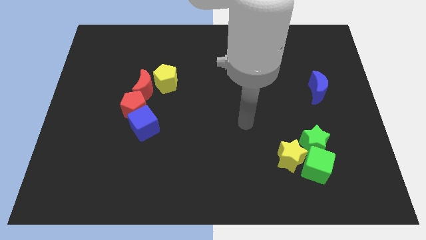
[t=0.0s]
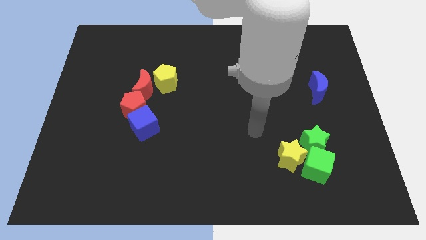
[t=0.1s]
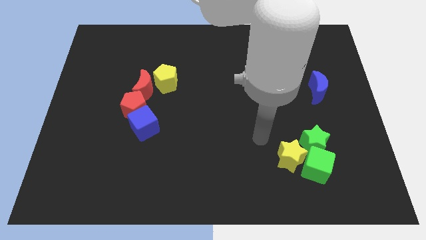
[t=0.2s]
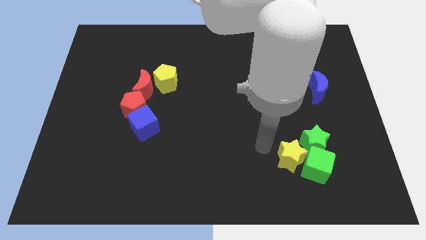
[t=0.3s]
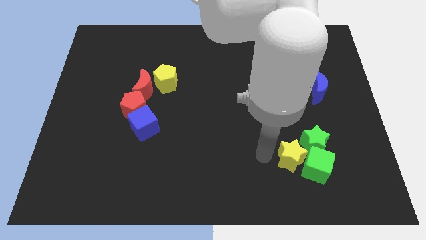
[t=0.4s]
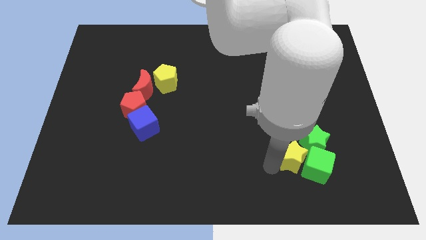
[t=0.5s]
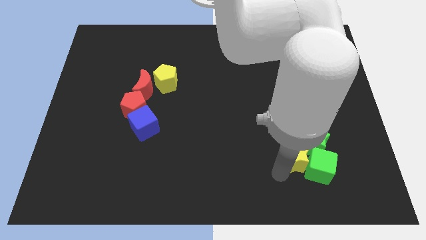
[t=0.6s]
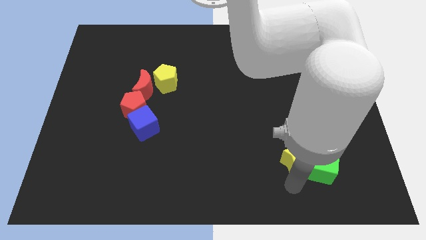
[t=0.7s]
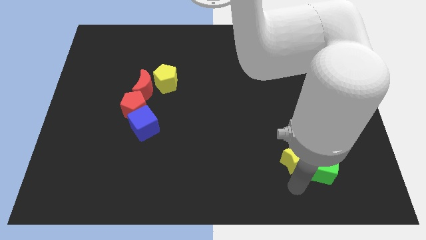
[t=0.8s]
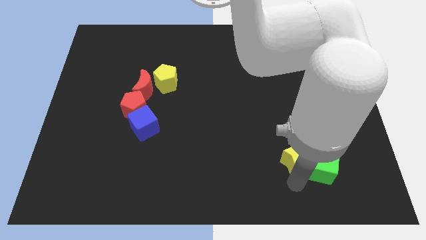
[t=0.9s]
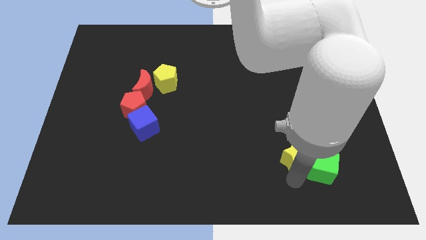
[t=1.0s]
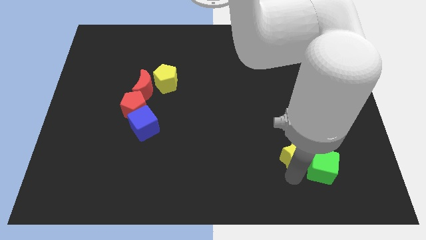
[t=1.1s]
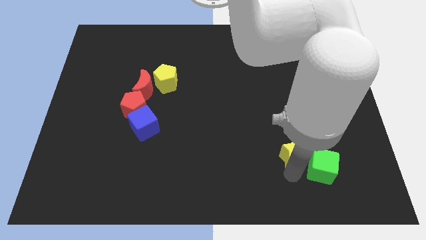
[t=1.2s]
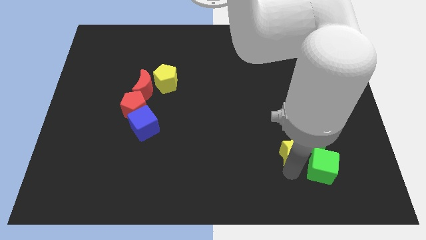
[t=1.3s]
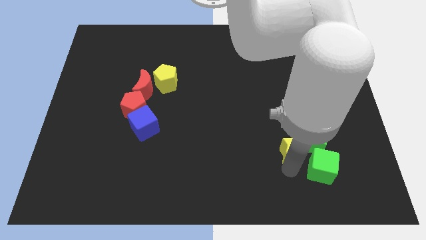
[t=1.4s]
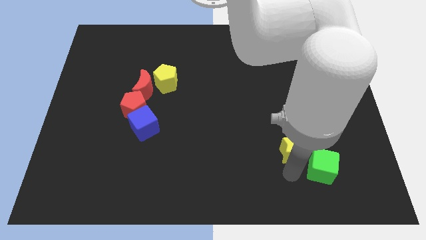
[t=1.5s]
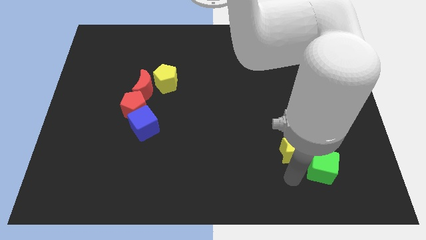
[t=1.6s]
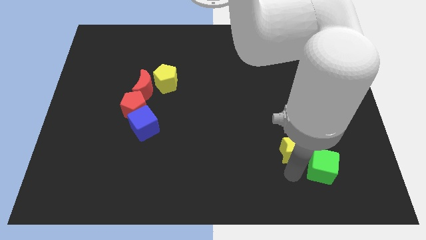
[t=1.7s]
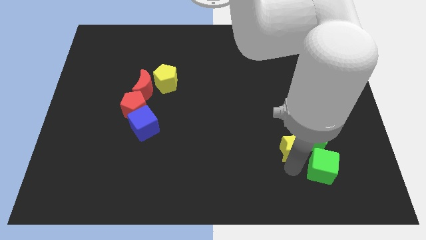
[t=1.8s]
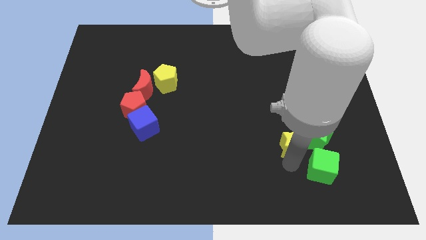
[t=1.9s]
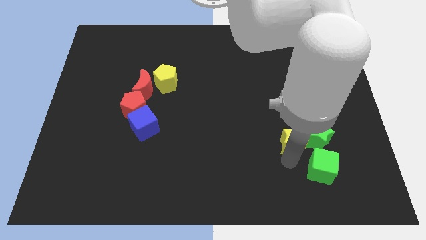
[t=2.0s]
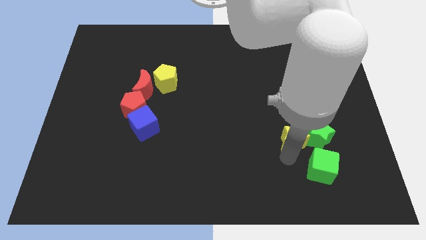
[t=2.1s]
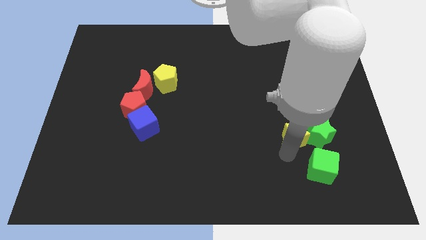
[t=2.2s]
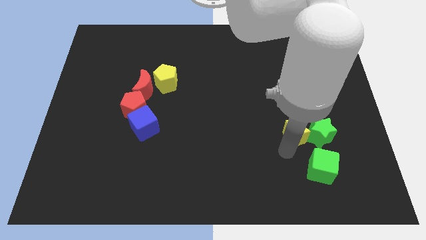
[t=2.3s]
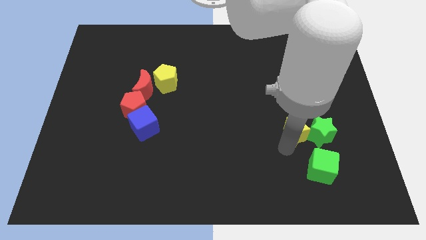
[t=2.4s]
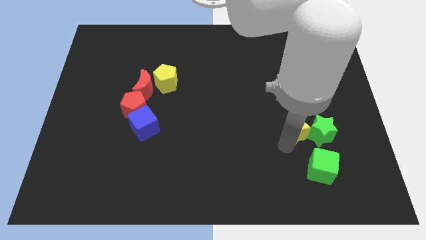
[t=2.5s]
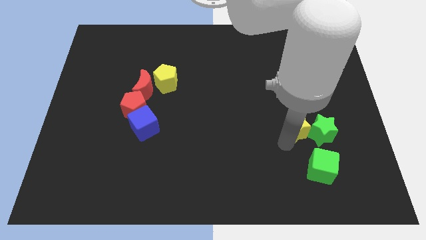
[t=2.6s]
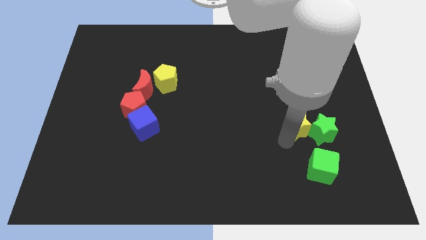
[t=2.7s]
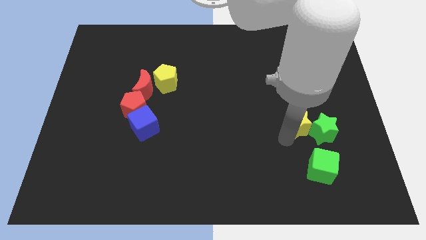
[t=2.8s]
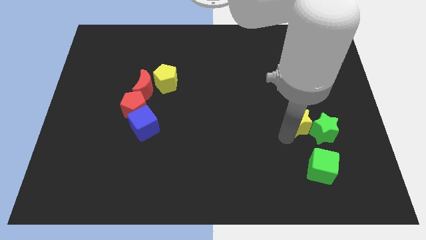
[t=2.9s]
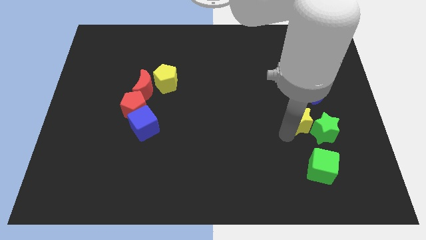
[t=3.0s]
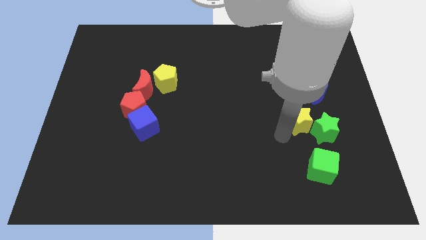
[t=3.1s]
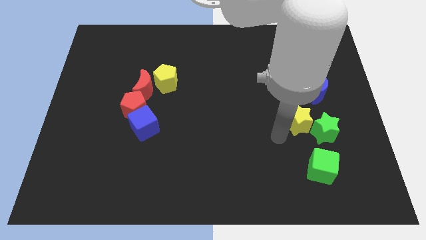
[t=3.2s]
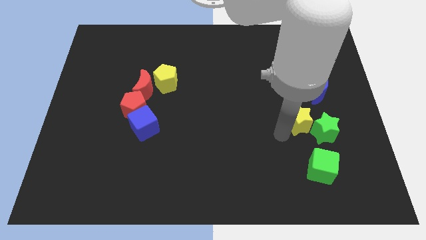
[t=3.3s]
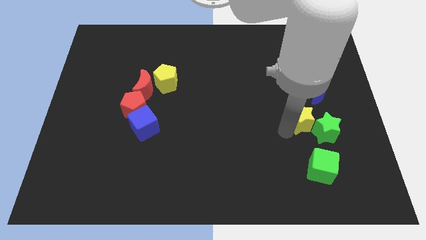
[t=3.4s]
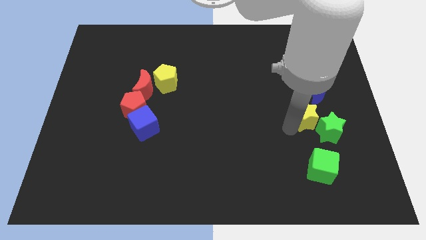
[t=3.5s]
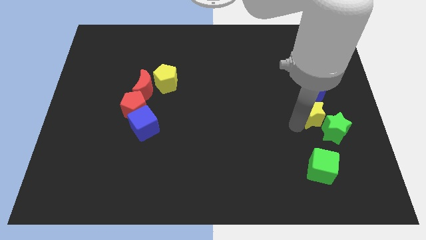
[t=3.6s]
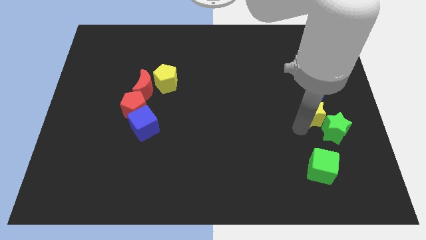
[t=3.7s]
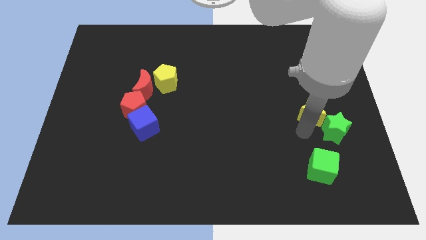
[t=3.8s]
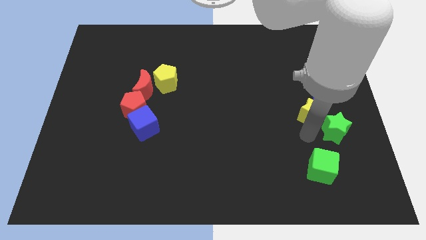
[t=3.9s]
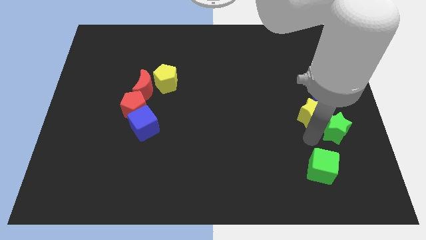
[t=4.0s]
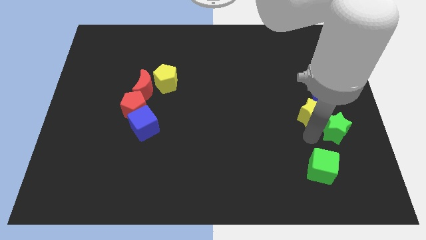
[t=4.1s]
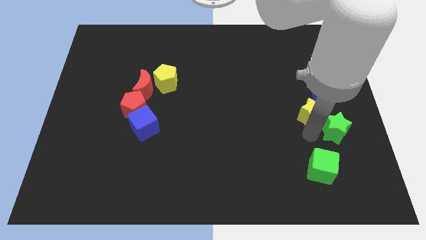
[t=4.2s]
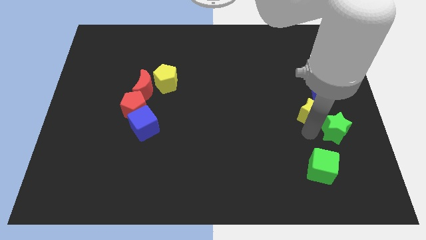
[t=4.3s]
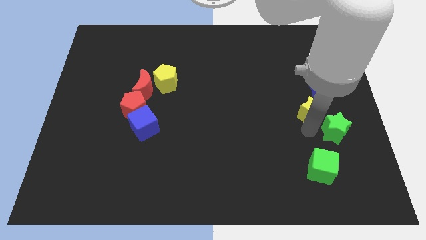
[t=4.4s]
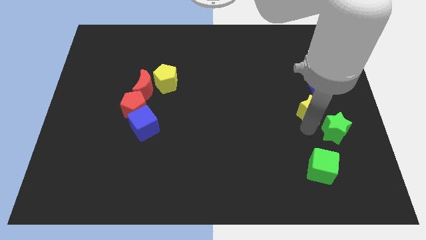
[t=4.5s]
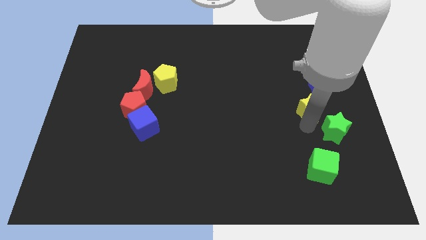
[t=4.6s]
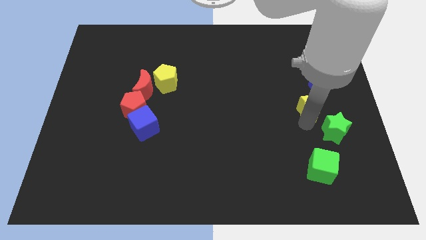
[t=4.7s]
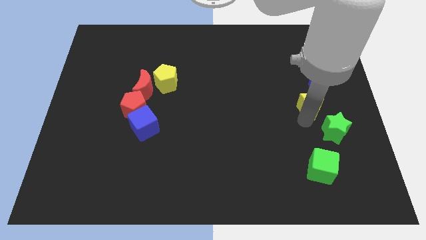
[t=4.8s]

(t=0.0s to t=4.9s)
put the yellow star next to the blue moon

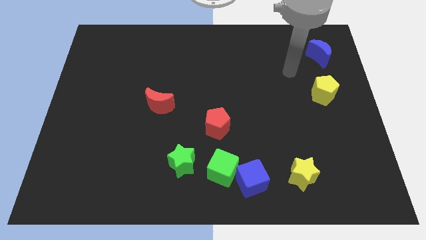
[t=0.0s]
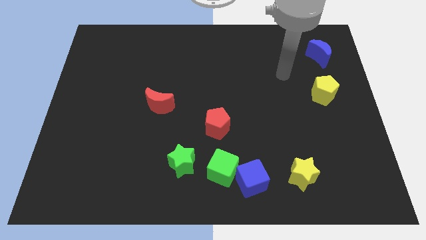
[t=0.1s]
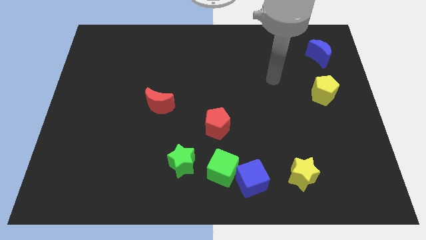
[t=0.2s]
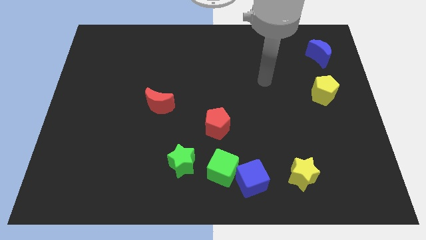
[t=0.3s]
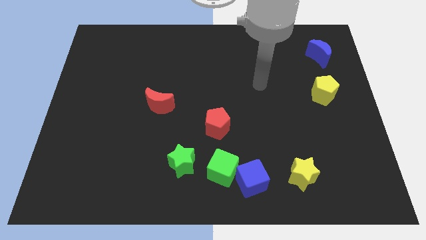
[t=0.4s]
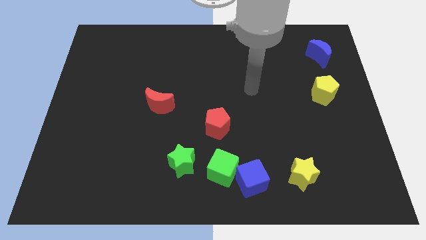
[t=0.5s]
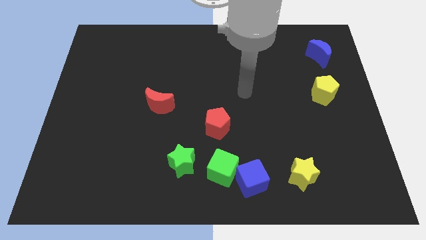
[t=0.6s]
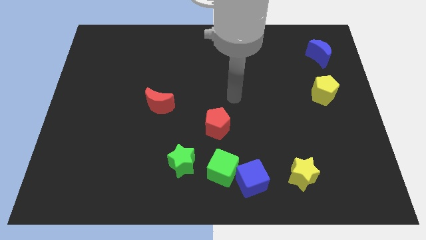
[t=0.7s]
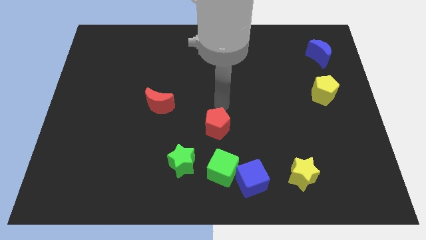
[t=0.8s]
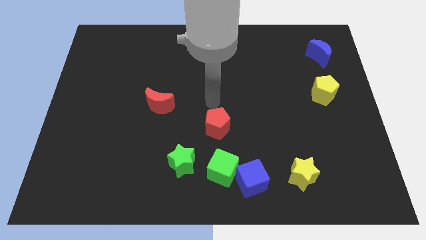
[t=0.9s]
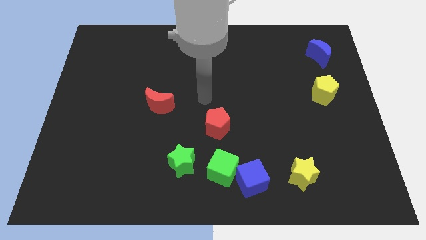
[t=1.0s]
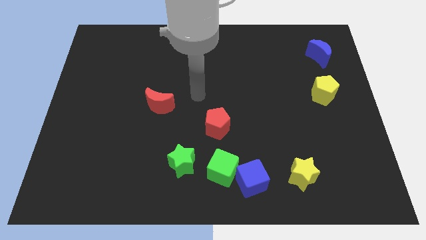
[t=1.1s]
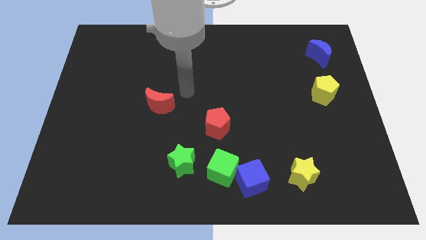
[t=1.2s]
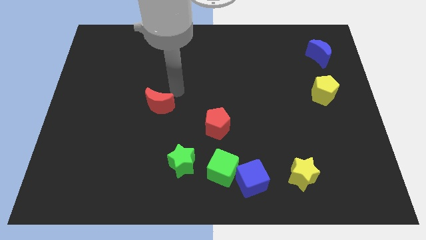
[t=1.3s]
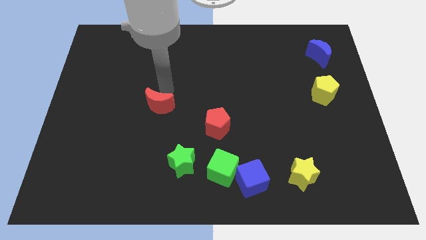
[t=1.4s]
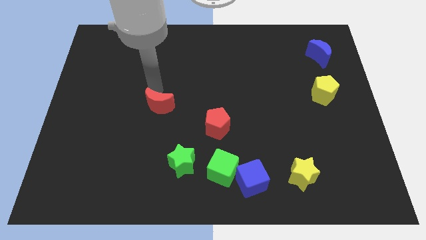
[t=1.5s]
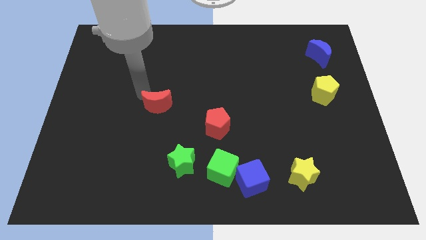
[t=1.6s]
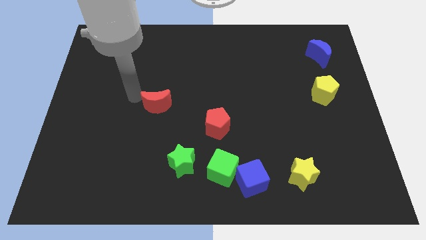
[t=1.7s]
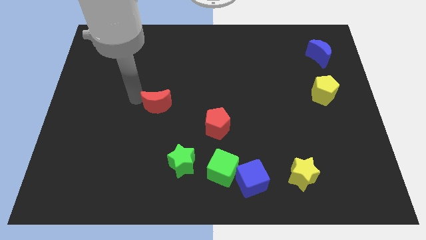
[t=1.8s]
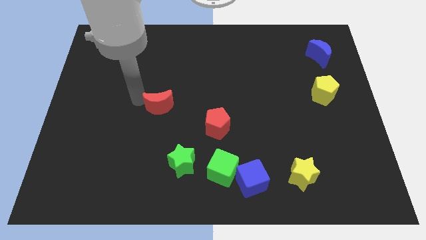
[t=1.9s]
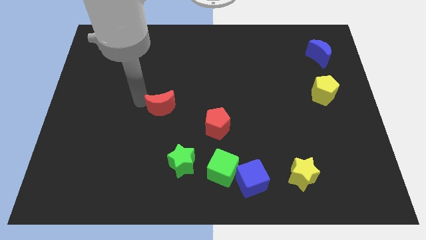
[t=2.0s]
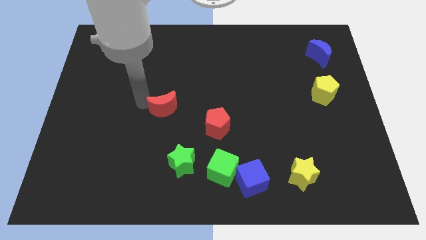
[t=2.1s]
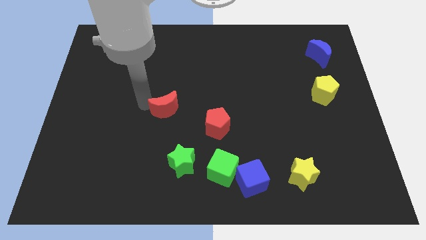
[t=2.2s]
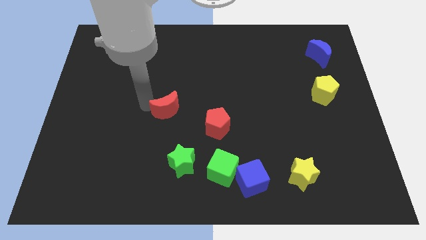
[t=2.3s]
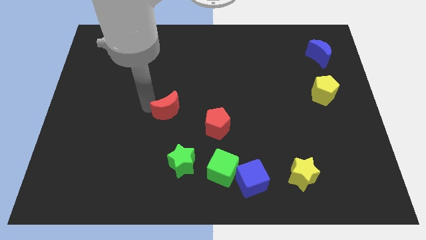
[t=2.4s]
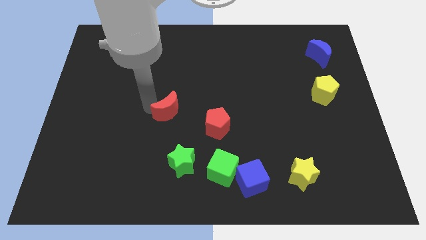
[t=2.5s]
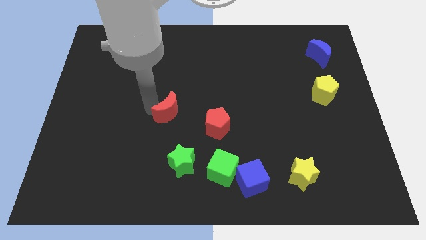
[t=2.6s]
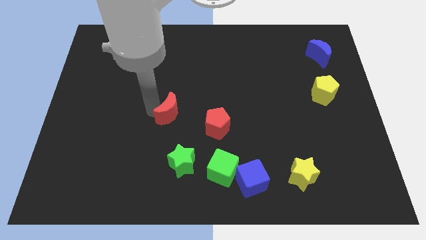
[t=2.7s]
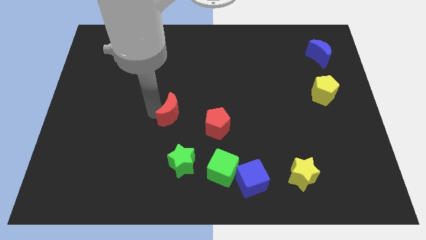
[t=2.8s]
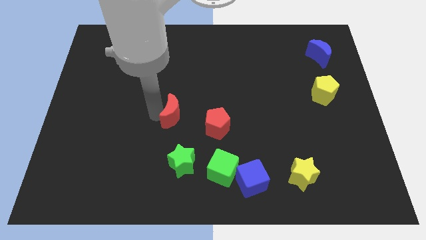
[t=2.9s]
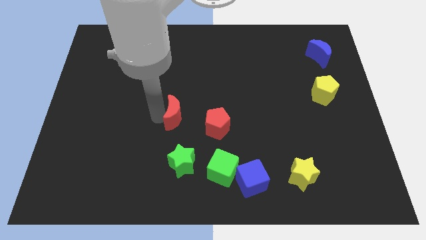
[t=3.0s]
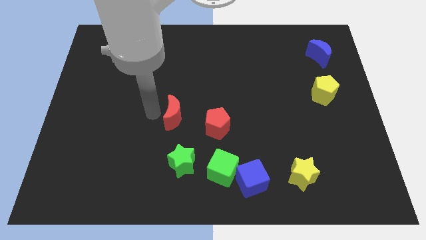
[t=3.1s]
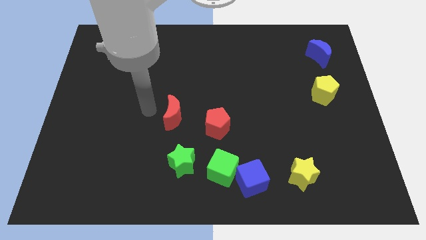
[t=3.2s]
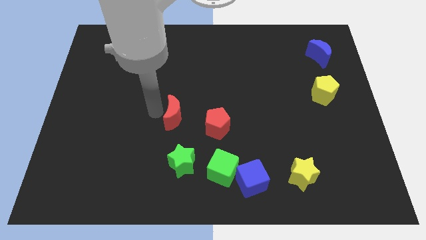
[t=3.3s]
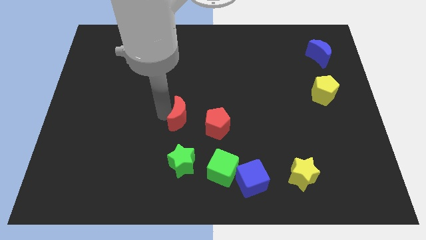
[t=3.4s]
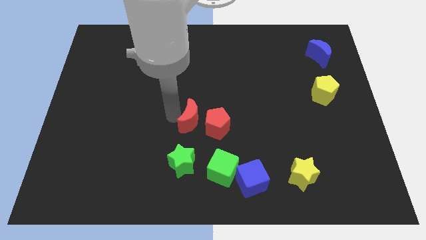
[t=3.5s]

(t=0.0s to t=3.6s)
push the red moon towards the red pentagon

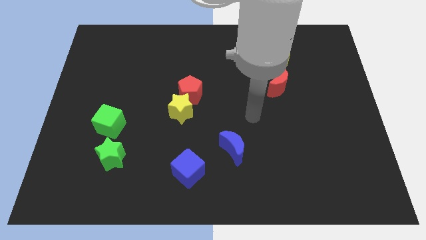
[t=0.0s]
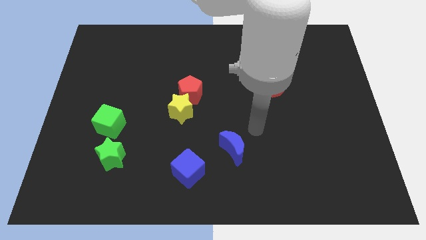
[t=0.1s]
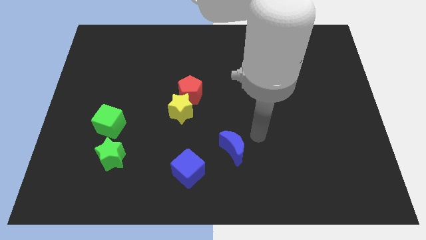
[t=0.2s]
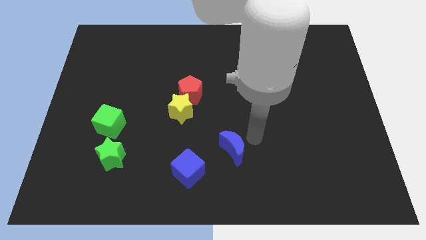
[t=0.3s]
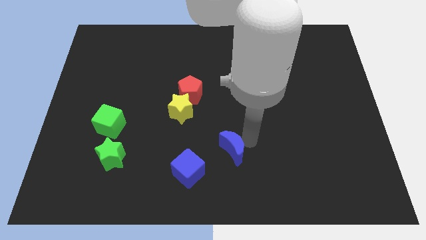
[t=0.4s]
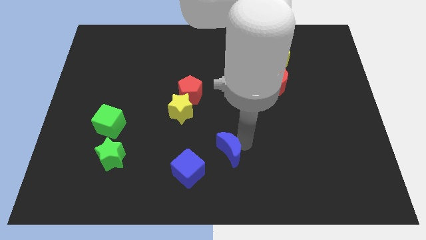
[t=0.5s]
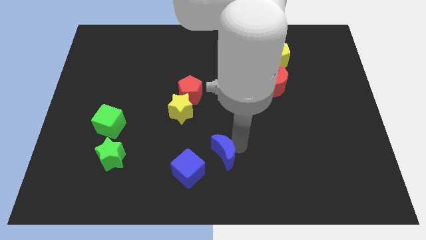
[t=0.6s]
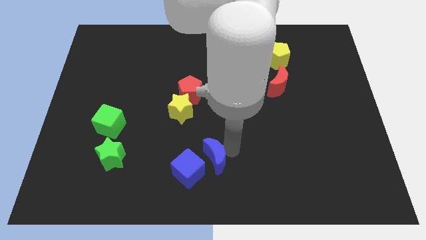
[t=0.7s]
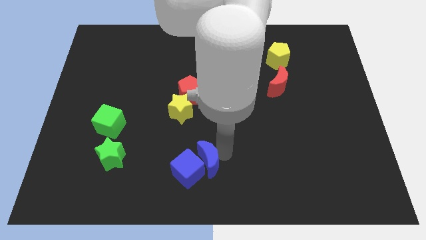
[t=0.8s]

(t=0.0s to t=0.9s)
put the blue moon to the blue cube
